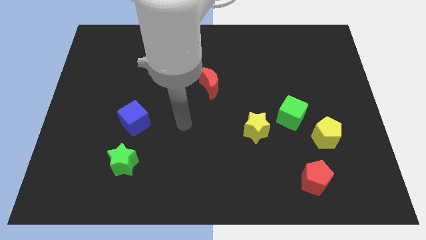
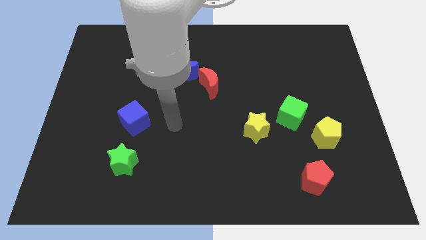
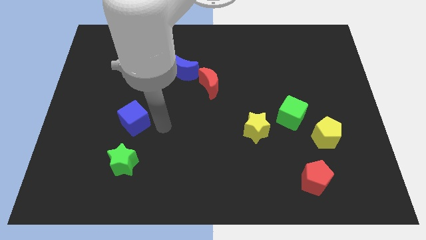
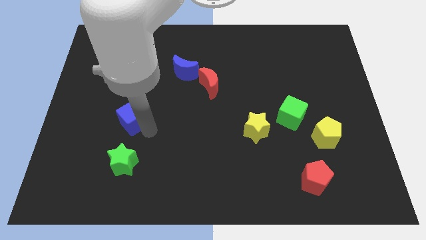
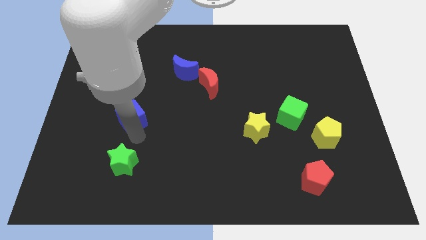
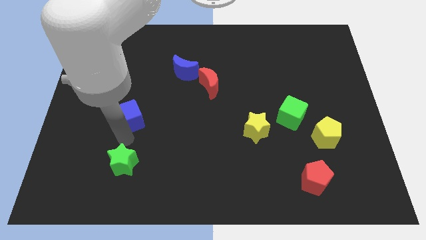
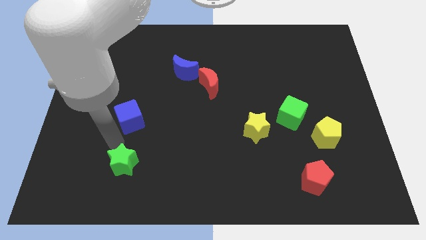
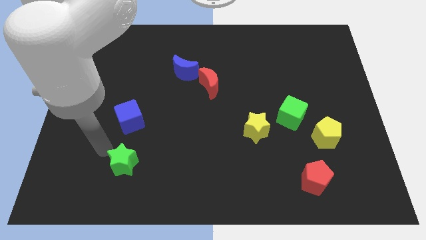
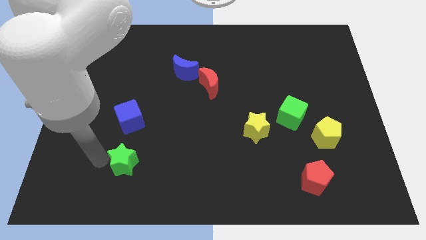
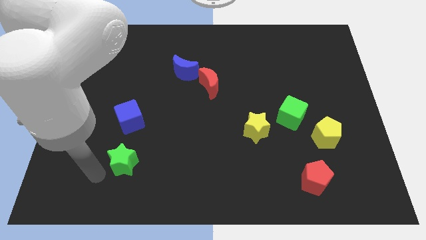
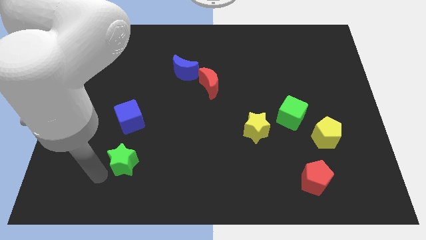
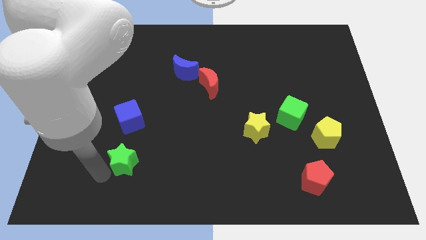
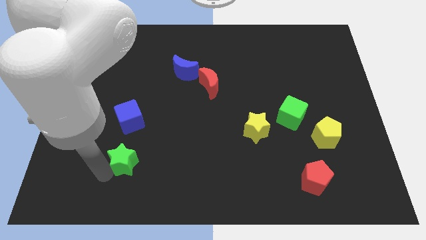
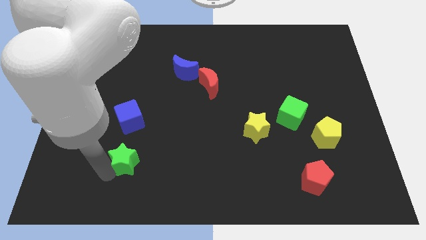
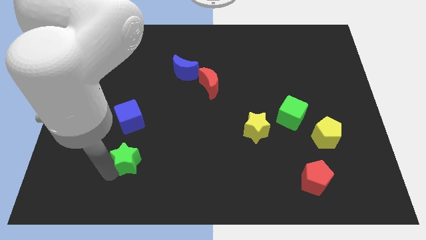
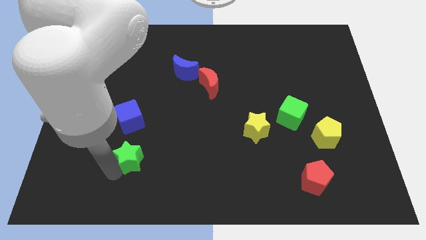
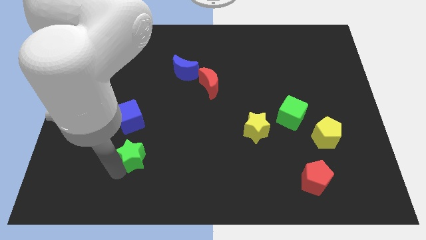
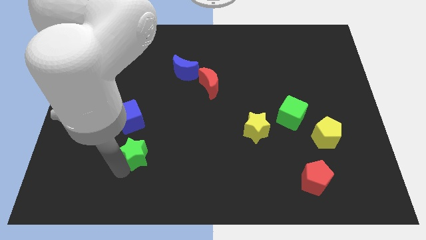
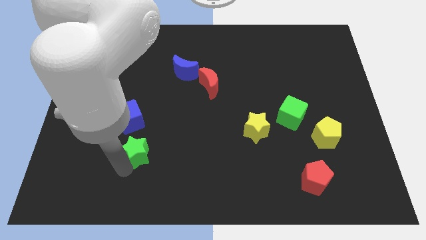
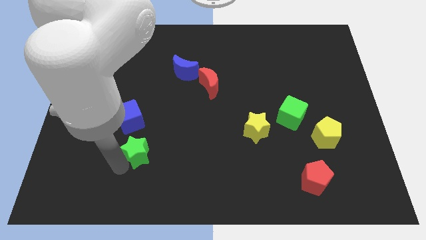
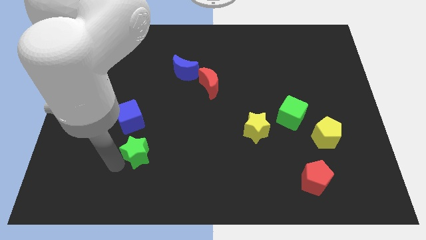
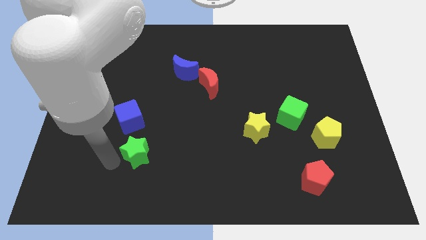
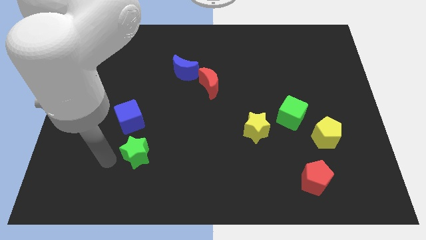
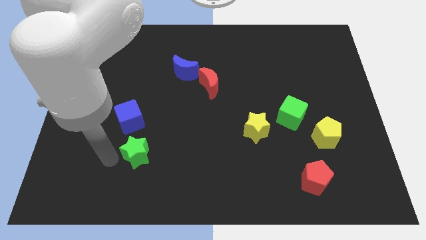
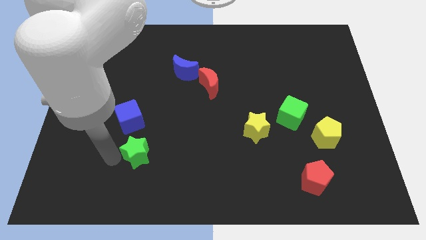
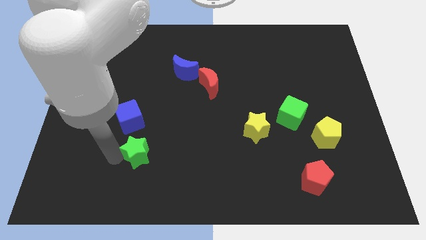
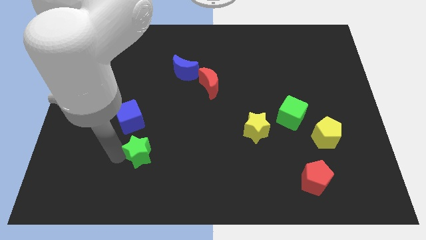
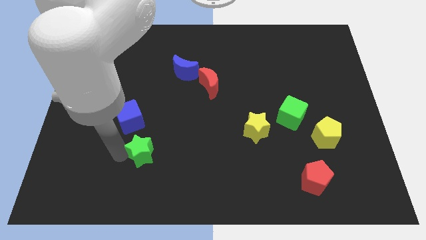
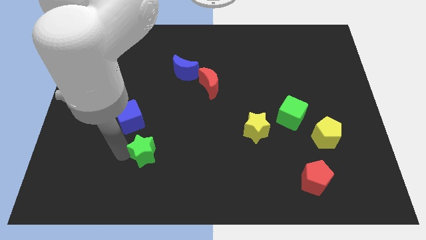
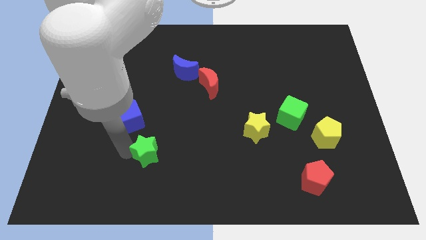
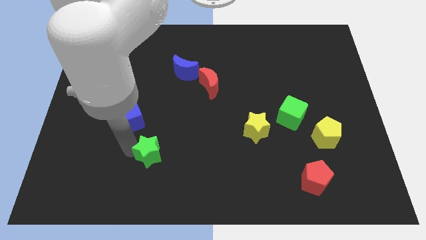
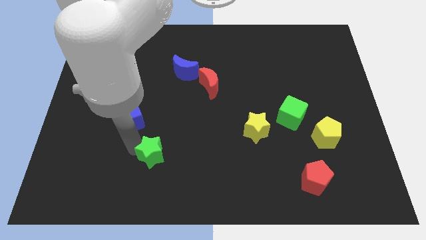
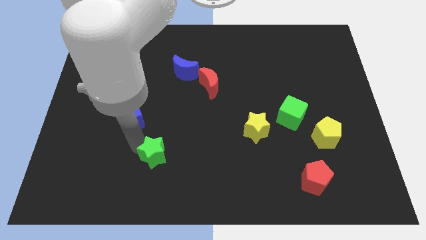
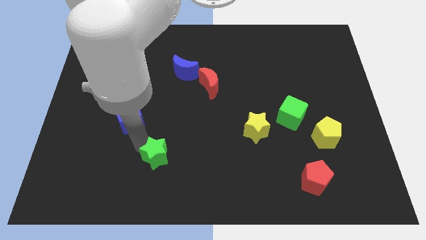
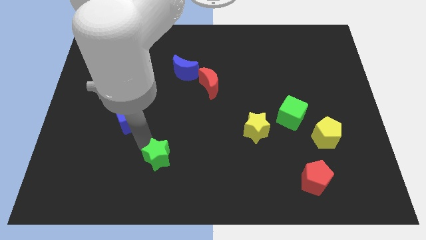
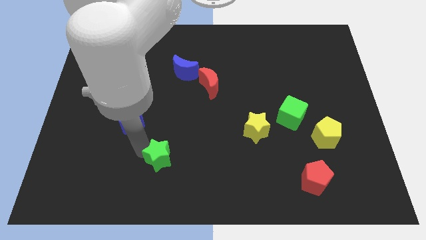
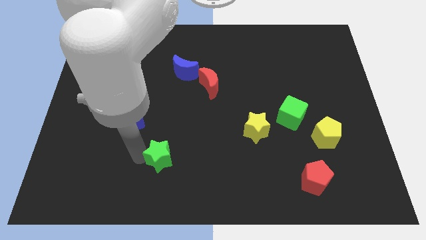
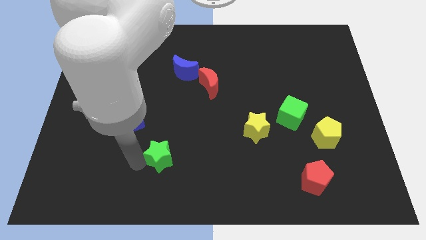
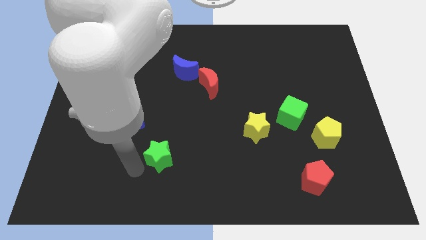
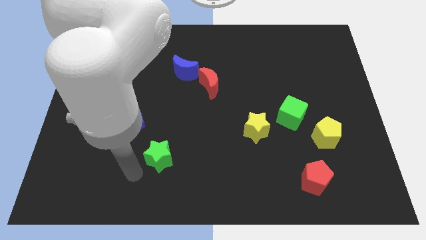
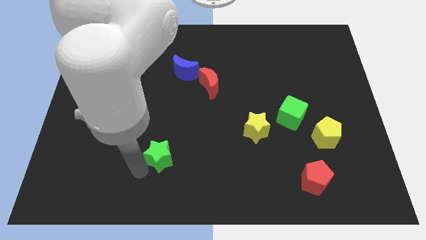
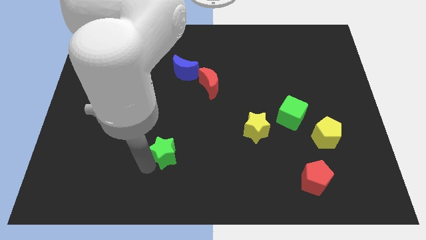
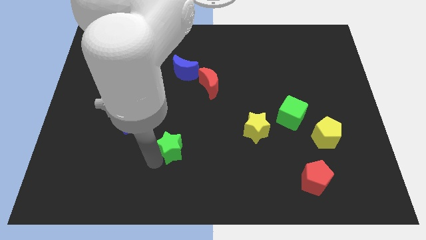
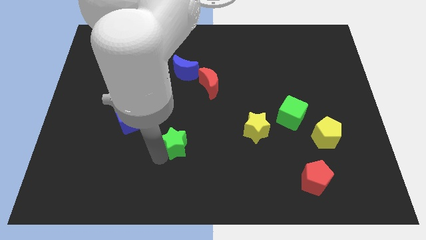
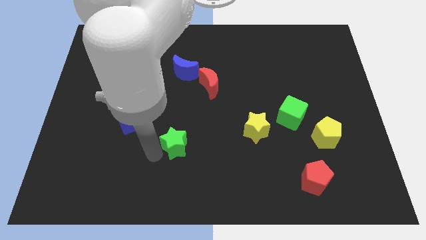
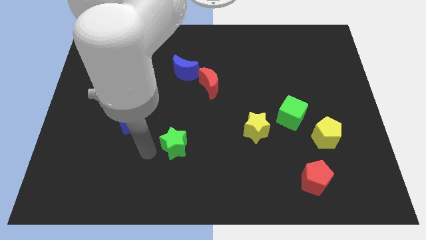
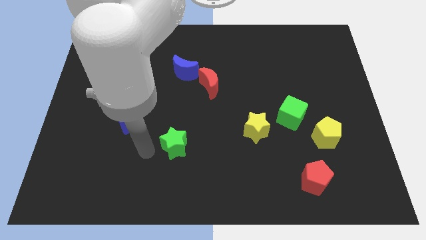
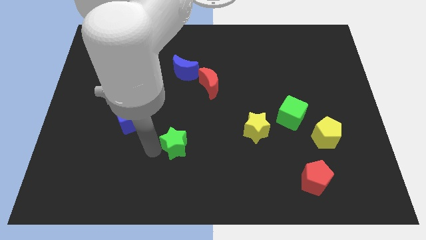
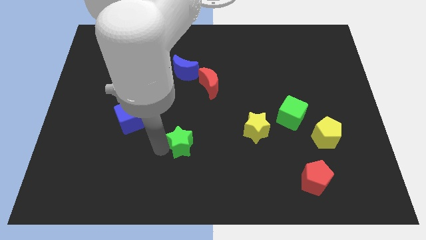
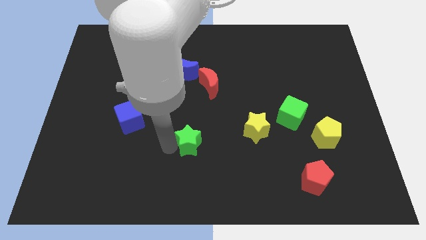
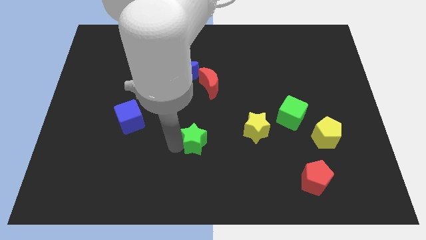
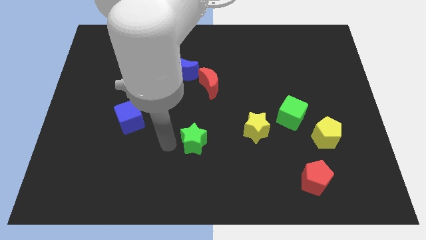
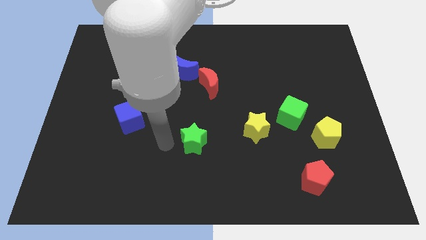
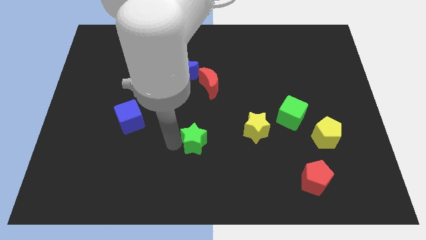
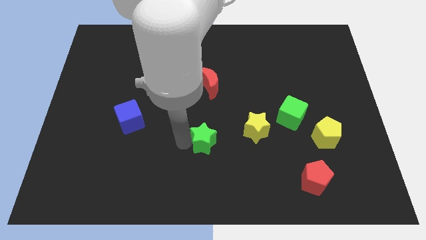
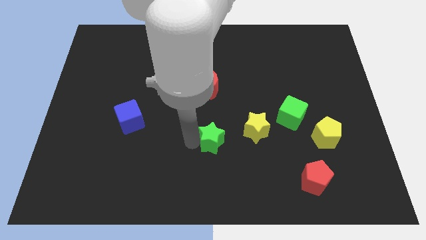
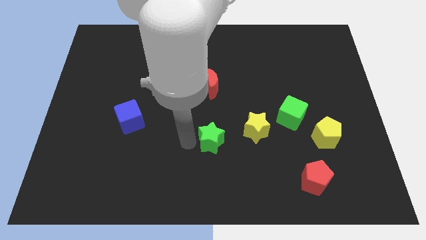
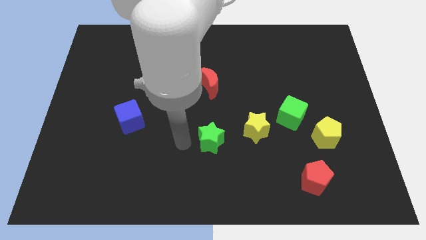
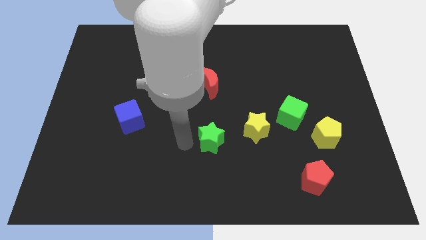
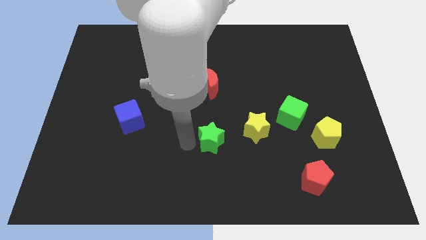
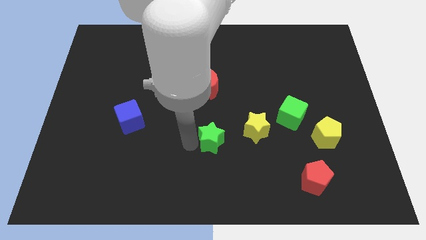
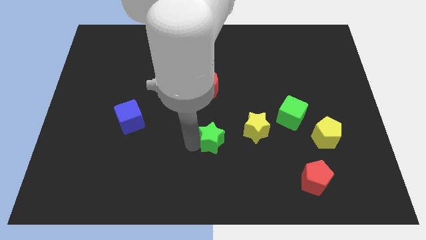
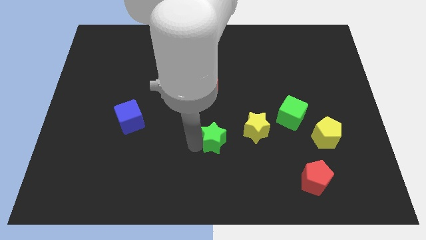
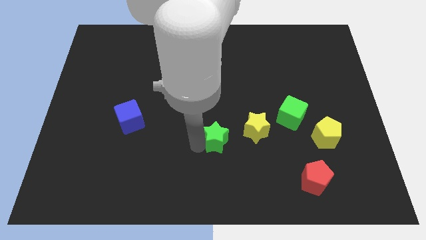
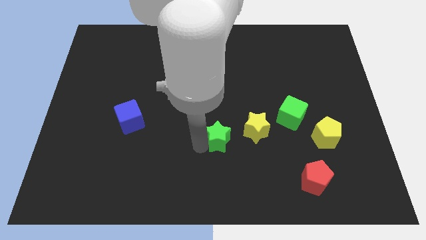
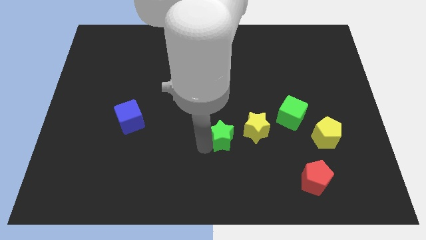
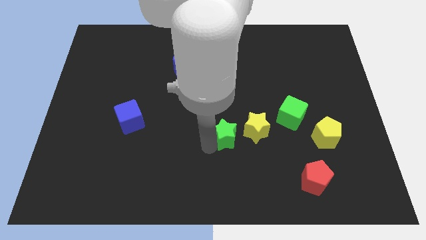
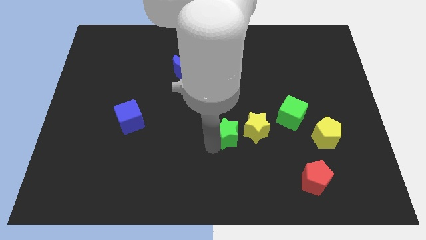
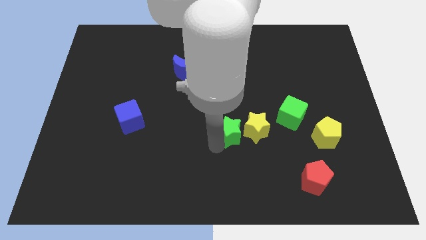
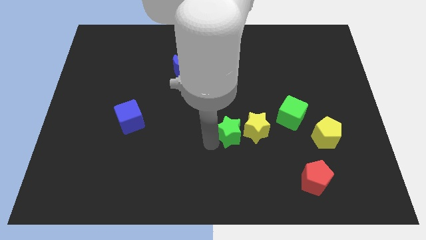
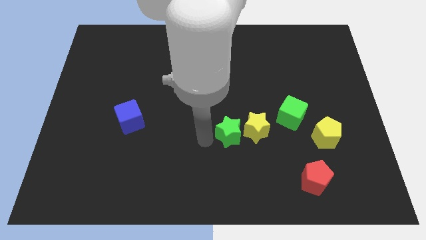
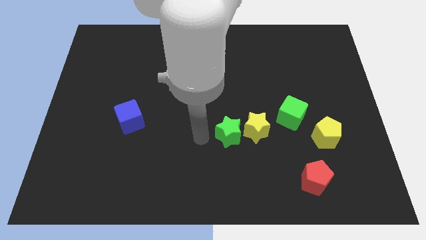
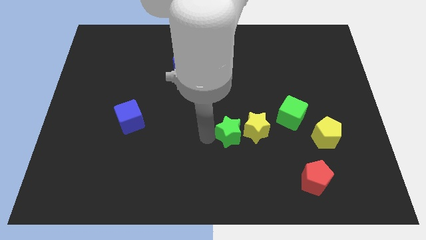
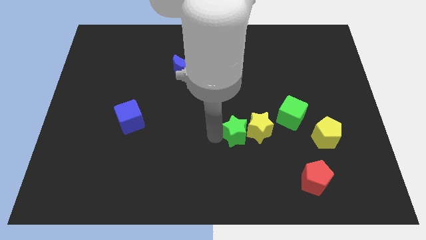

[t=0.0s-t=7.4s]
put the green star to the yellow star

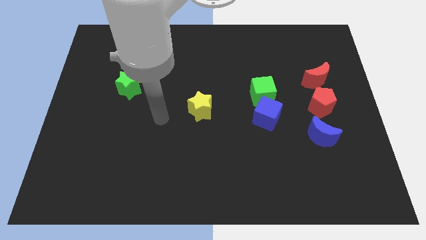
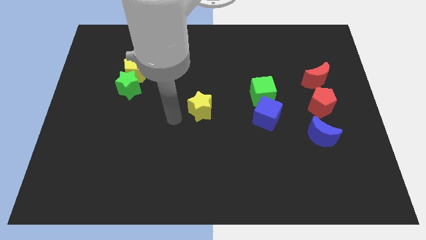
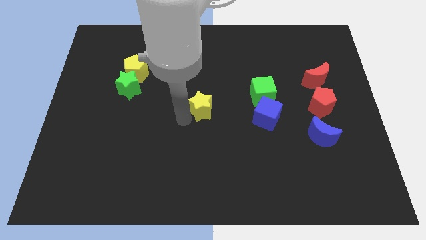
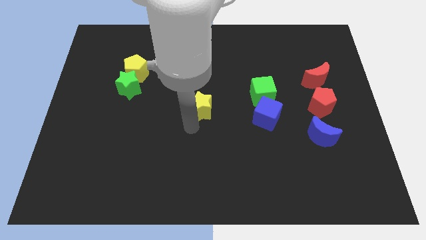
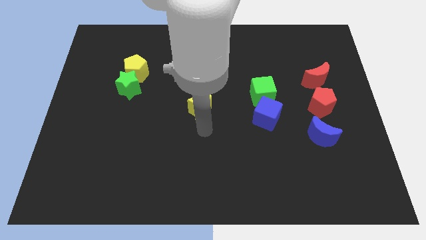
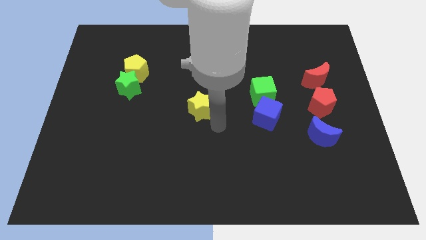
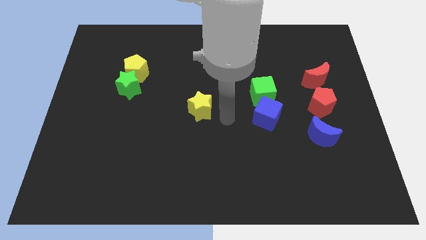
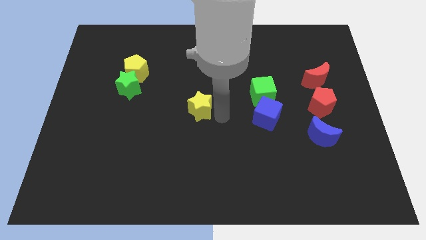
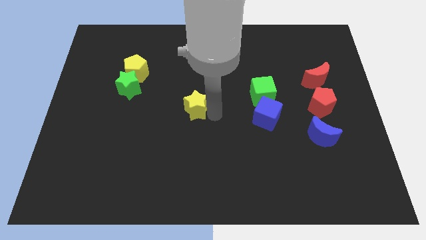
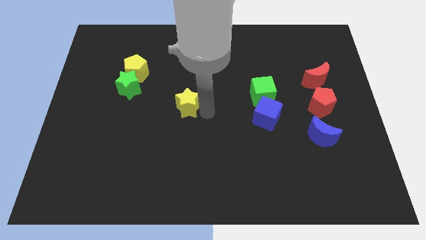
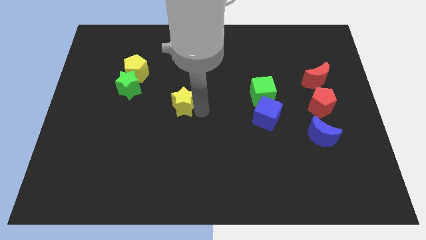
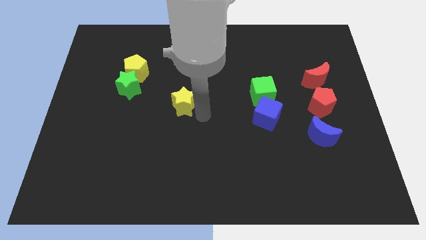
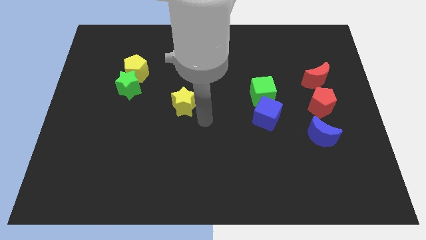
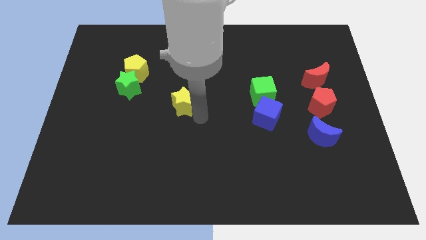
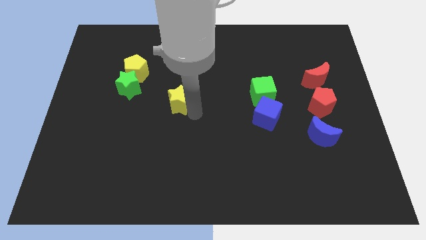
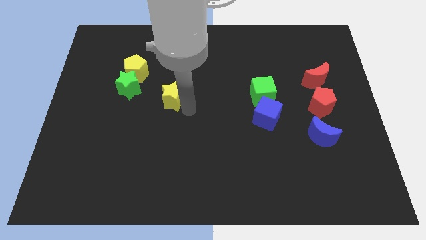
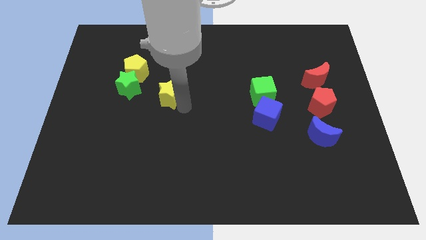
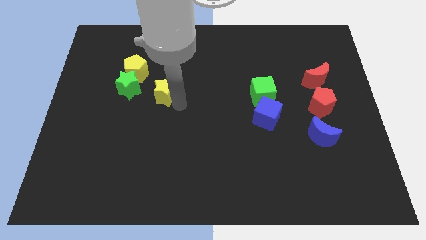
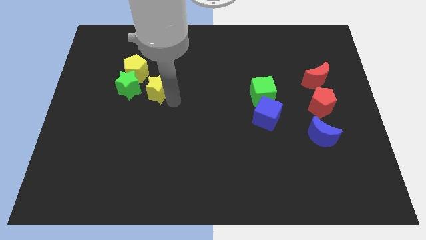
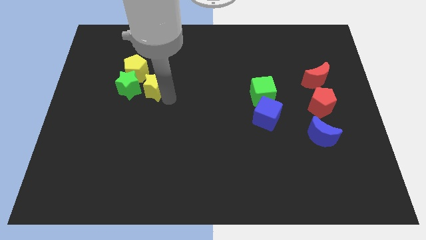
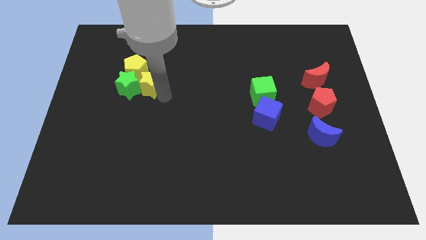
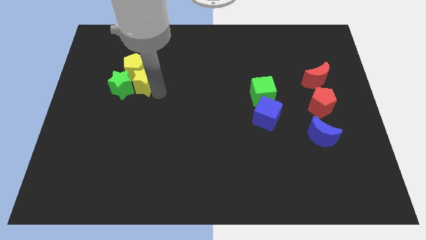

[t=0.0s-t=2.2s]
slide the yellow star next to the yellow pentagon
